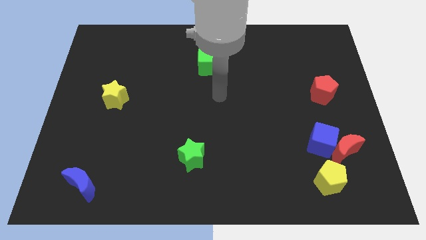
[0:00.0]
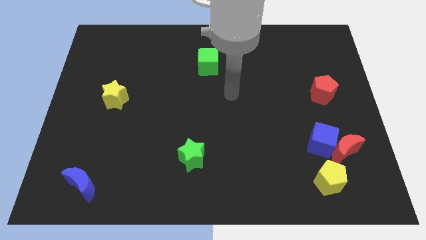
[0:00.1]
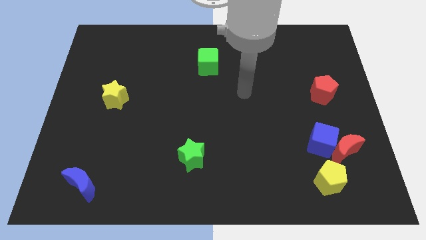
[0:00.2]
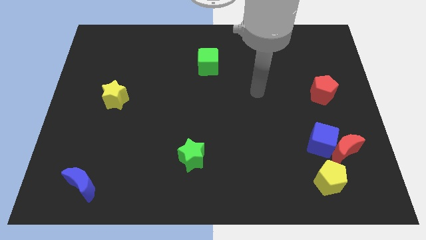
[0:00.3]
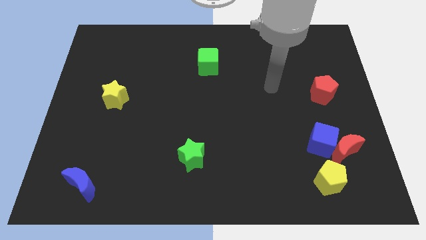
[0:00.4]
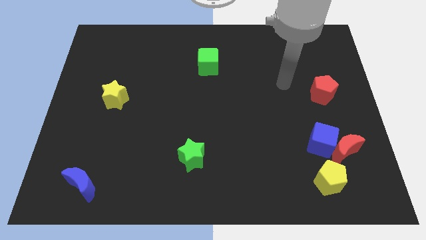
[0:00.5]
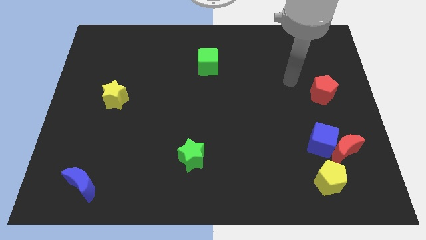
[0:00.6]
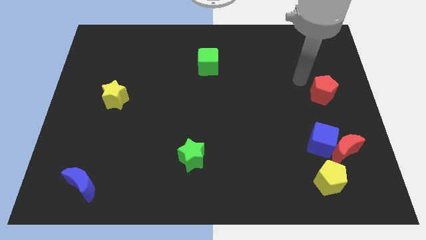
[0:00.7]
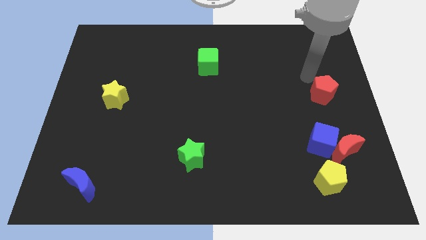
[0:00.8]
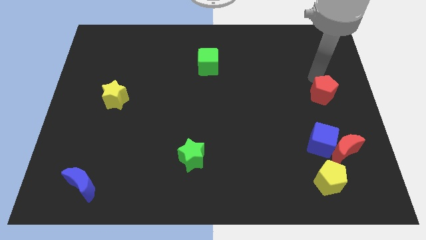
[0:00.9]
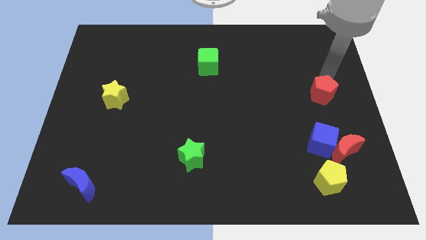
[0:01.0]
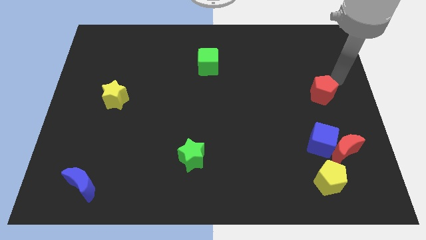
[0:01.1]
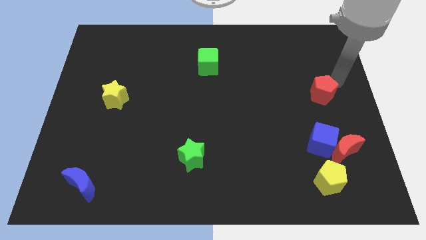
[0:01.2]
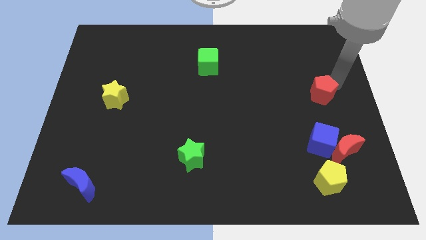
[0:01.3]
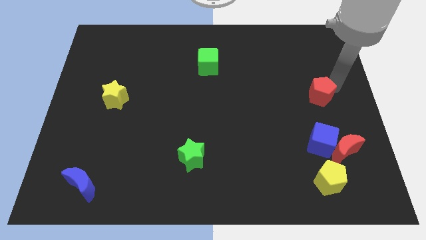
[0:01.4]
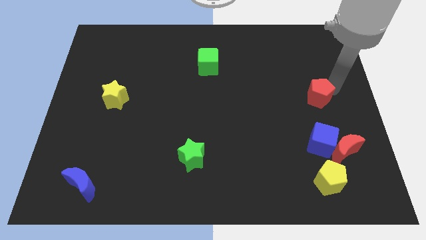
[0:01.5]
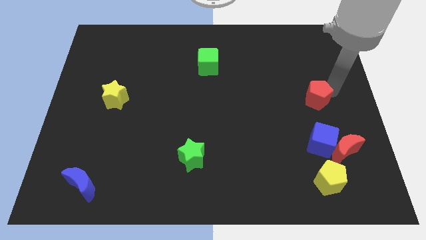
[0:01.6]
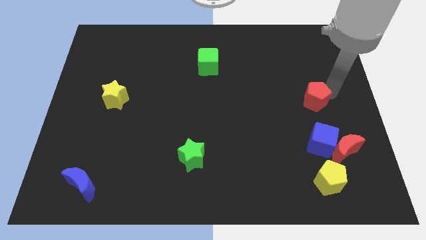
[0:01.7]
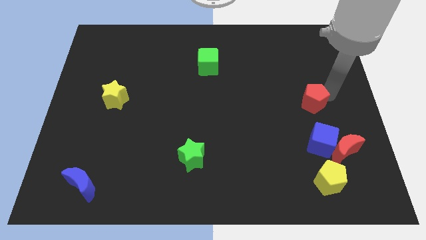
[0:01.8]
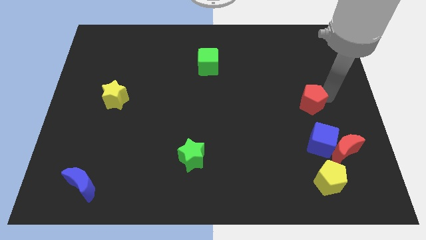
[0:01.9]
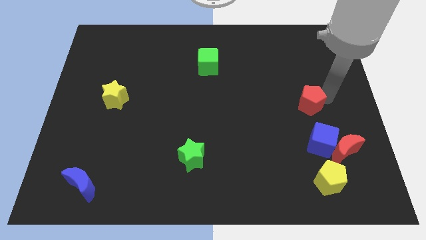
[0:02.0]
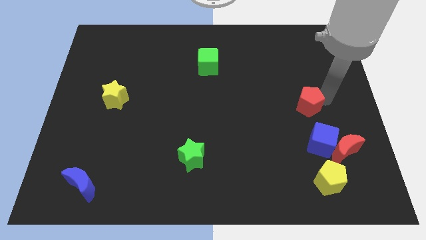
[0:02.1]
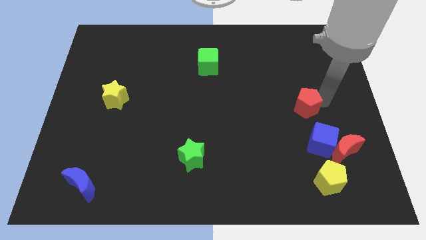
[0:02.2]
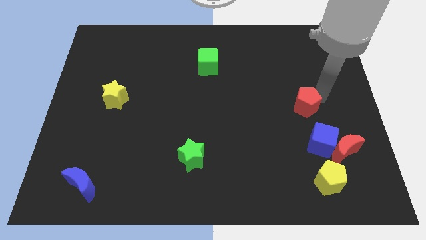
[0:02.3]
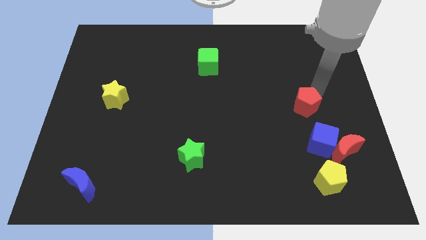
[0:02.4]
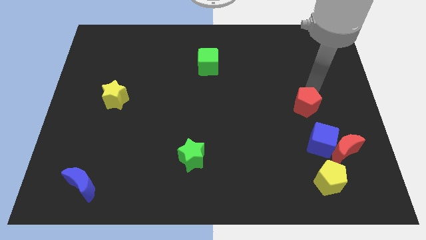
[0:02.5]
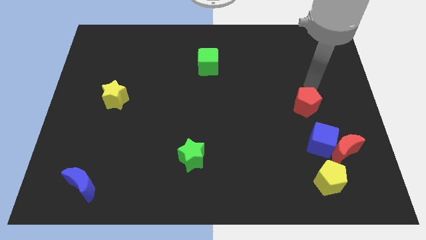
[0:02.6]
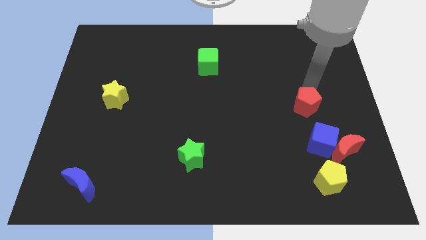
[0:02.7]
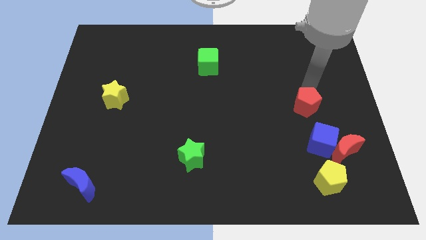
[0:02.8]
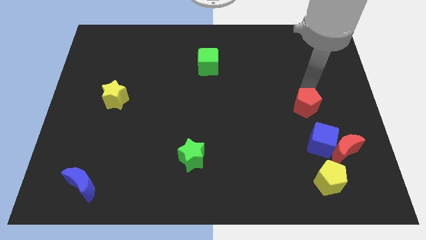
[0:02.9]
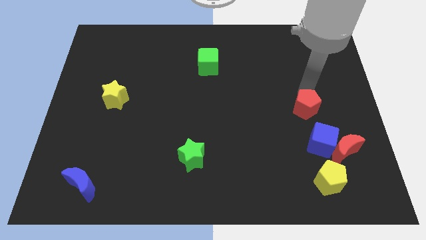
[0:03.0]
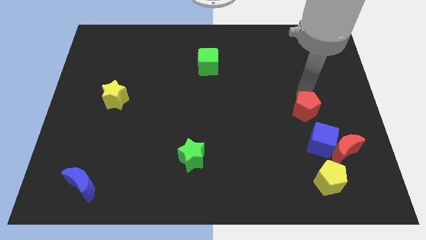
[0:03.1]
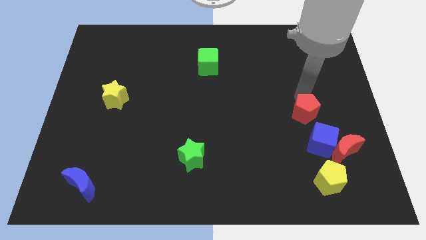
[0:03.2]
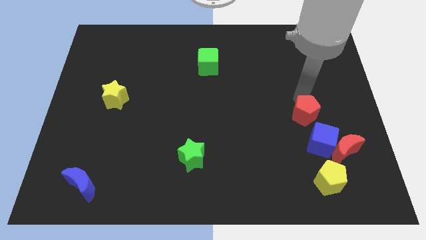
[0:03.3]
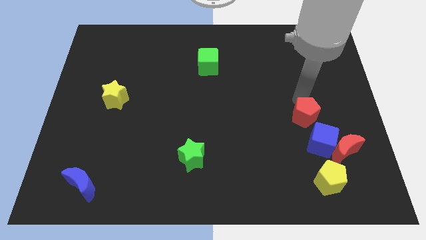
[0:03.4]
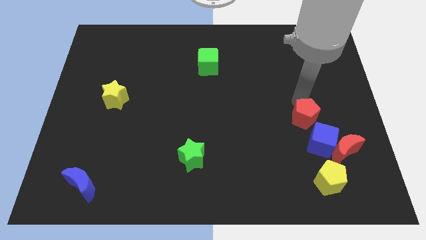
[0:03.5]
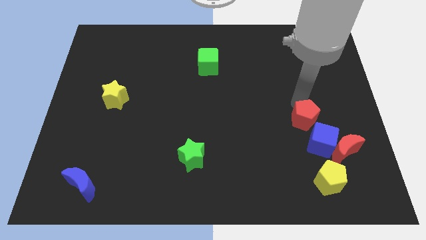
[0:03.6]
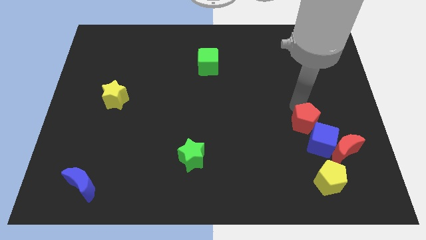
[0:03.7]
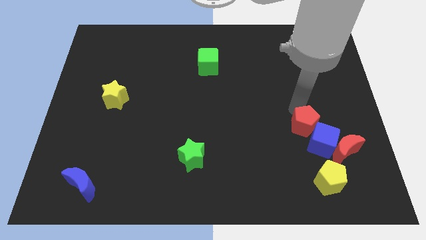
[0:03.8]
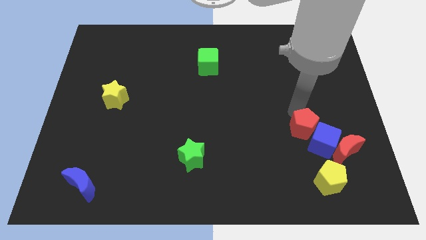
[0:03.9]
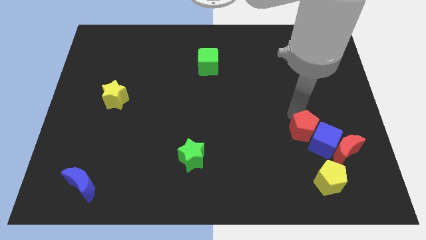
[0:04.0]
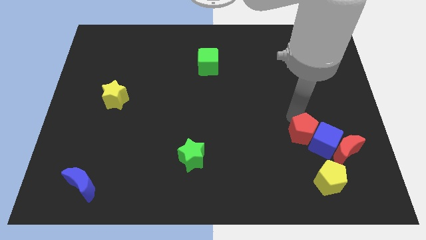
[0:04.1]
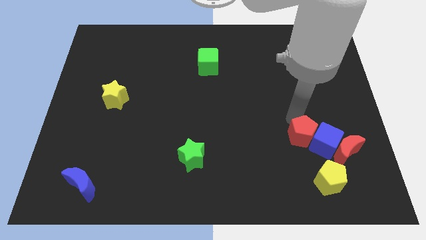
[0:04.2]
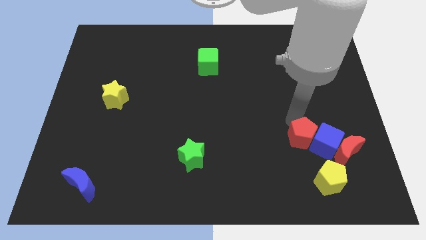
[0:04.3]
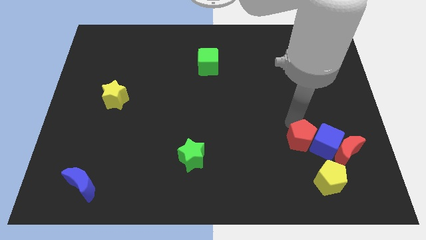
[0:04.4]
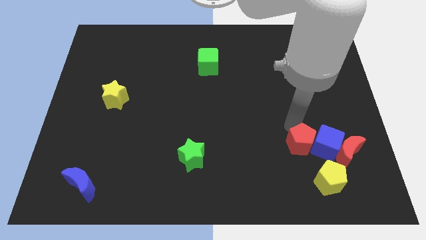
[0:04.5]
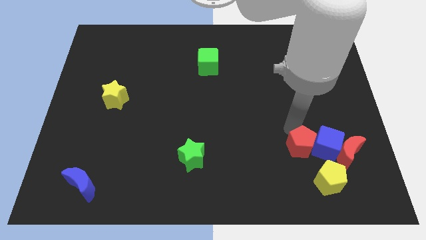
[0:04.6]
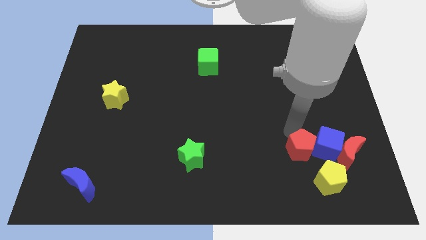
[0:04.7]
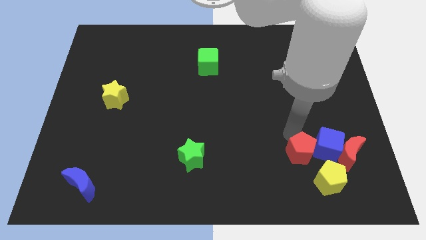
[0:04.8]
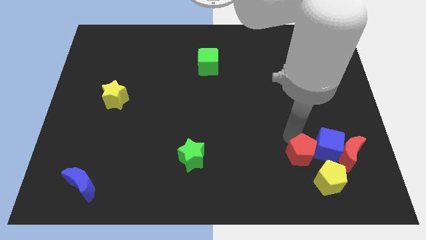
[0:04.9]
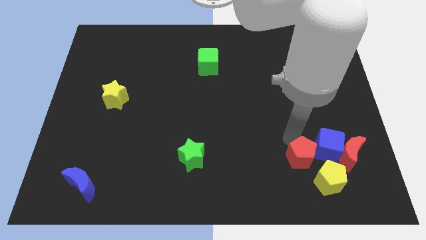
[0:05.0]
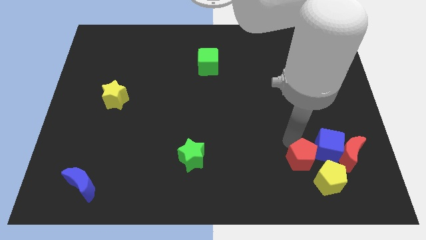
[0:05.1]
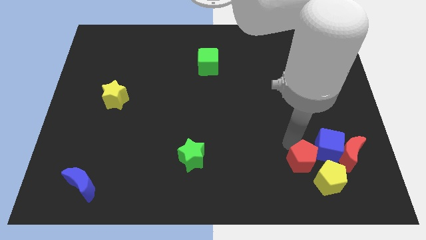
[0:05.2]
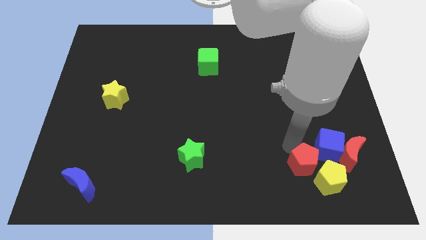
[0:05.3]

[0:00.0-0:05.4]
move the red pentagon close to the yellow pentagon

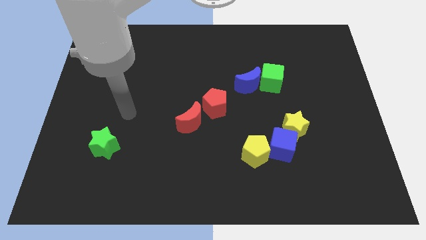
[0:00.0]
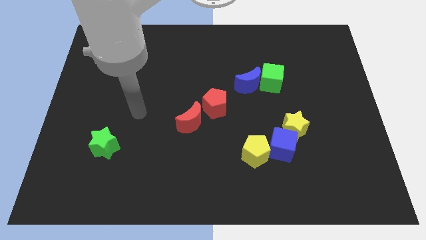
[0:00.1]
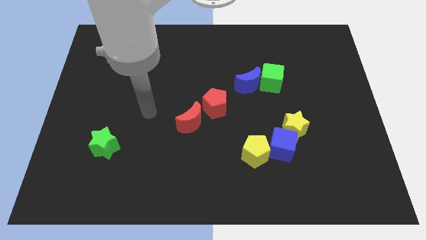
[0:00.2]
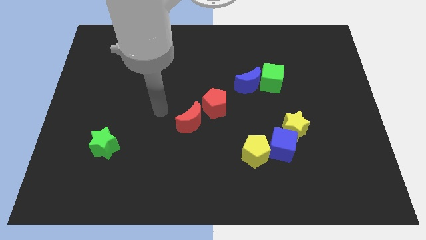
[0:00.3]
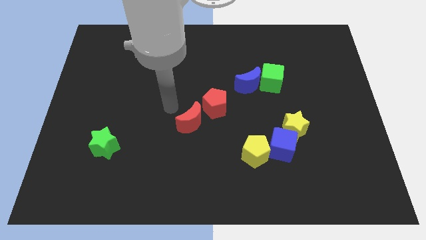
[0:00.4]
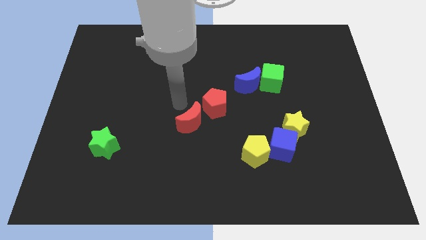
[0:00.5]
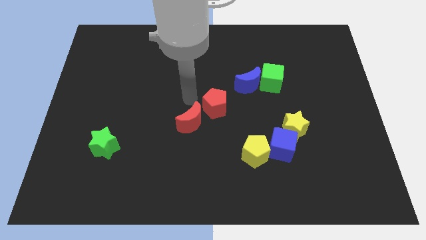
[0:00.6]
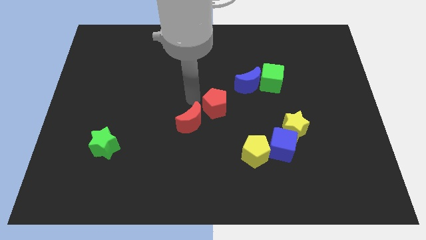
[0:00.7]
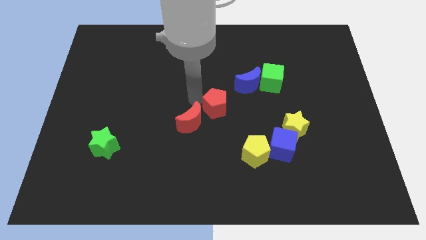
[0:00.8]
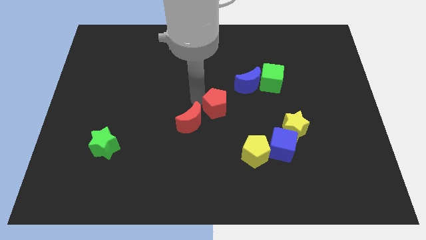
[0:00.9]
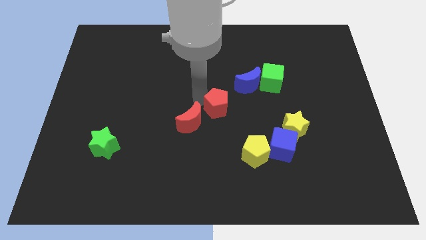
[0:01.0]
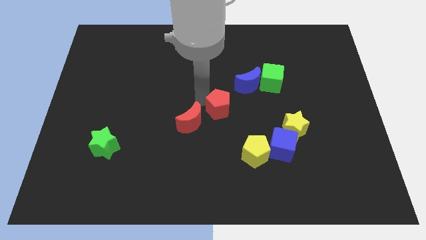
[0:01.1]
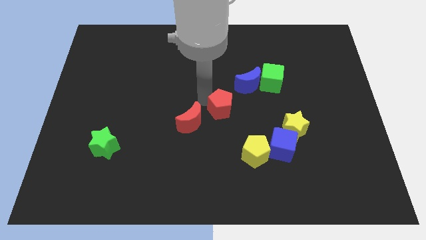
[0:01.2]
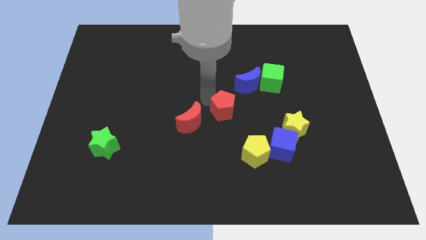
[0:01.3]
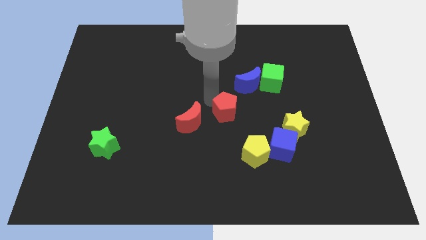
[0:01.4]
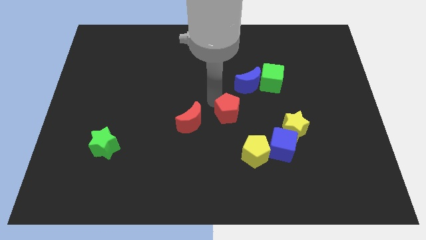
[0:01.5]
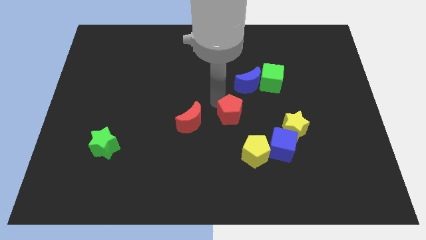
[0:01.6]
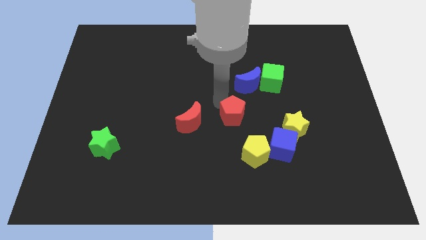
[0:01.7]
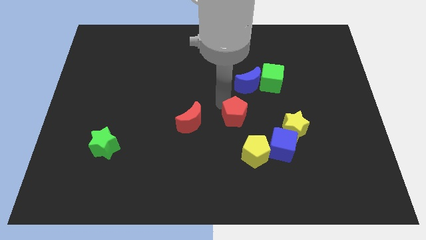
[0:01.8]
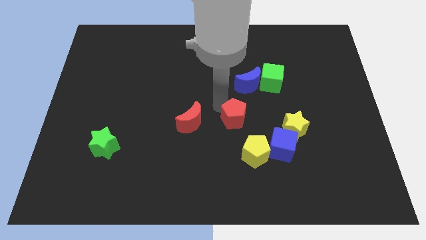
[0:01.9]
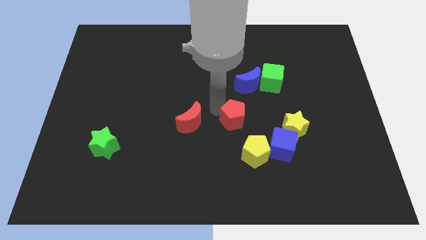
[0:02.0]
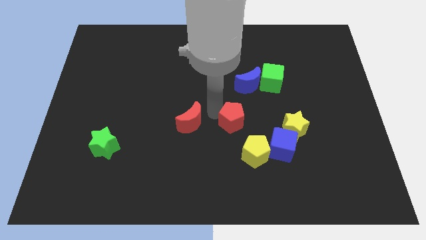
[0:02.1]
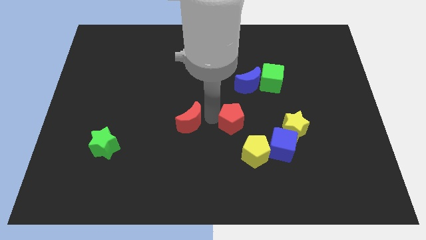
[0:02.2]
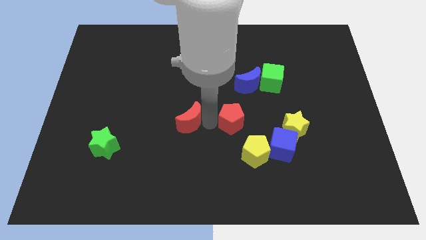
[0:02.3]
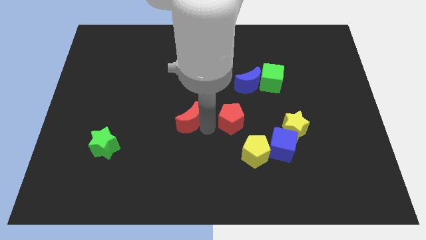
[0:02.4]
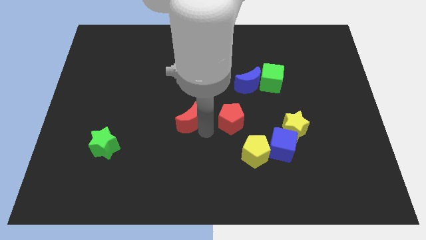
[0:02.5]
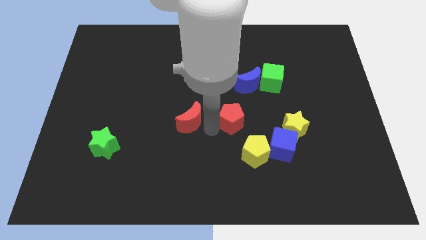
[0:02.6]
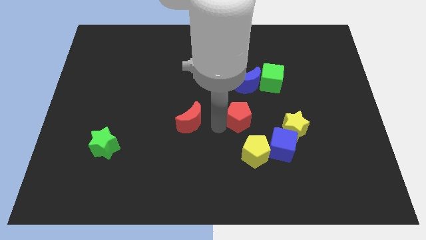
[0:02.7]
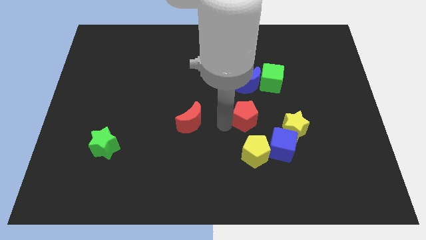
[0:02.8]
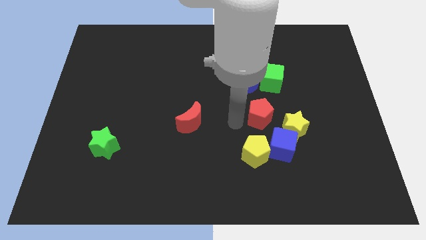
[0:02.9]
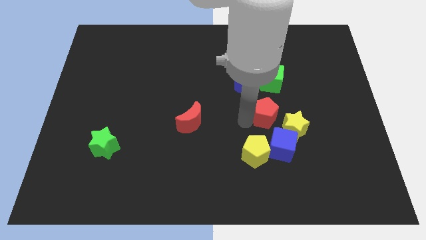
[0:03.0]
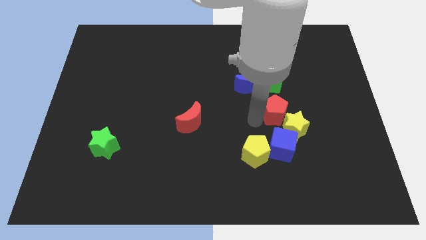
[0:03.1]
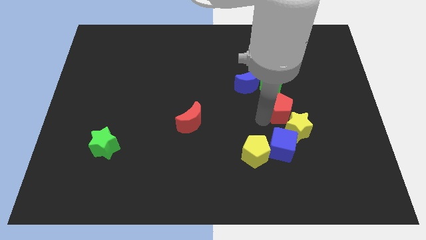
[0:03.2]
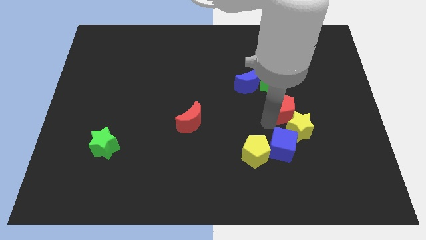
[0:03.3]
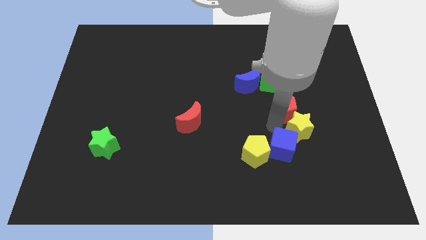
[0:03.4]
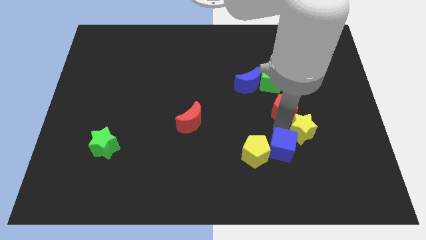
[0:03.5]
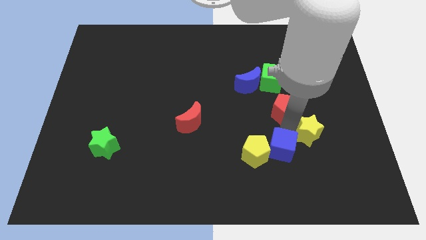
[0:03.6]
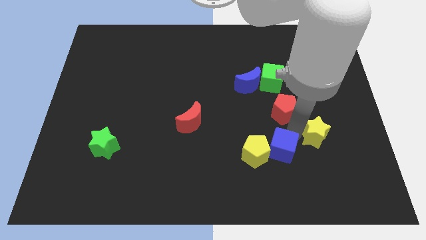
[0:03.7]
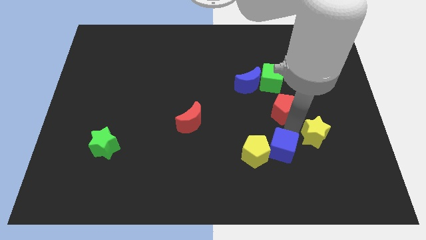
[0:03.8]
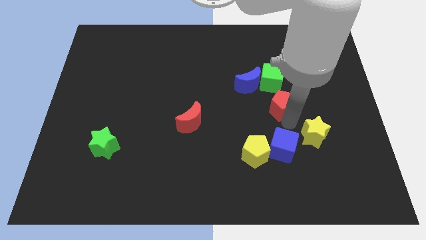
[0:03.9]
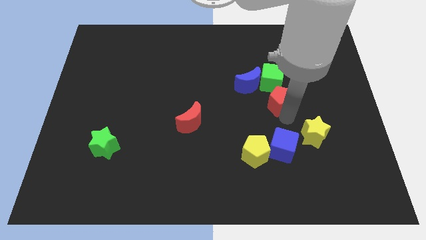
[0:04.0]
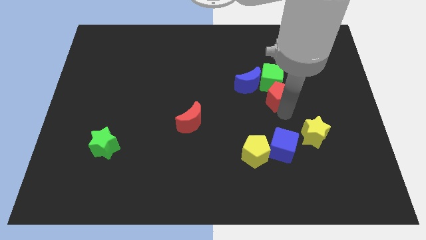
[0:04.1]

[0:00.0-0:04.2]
slide the red pentagon to the green cube
